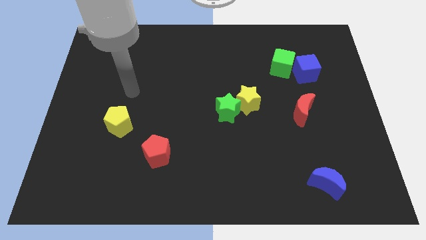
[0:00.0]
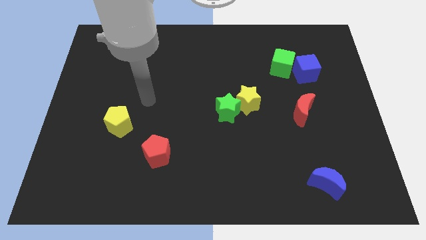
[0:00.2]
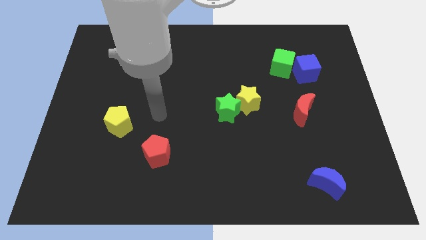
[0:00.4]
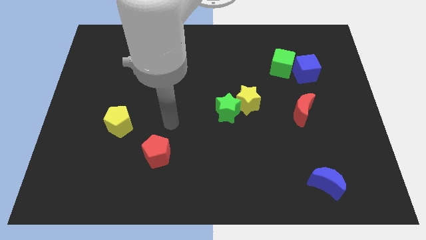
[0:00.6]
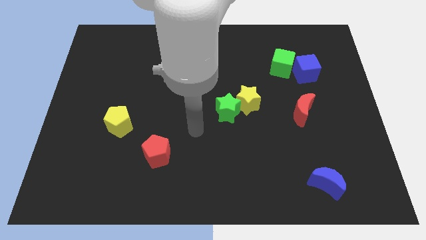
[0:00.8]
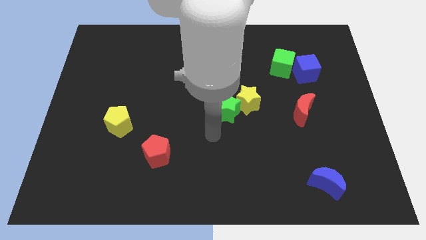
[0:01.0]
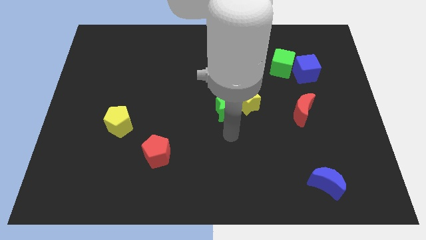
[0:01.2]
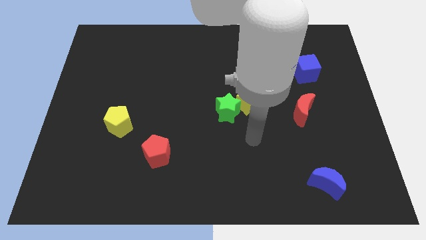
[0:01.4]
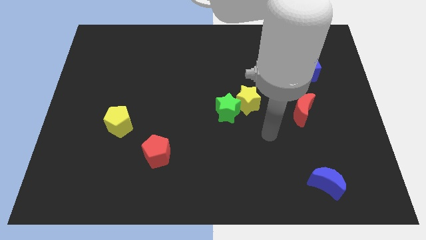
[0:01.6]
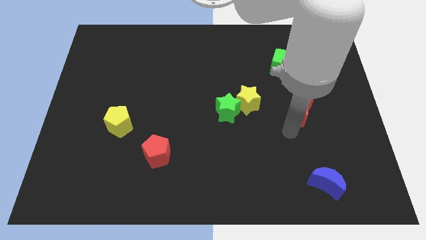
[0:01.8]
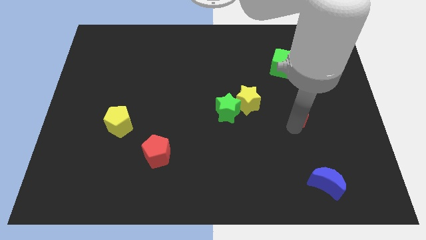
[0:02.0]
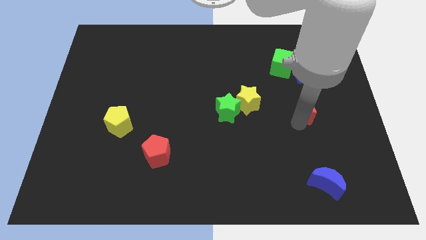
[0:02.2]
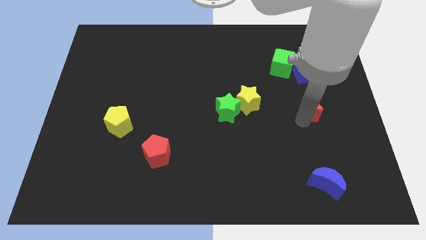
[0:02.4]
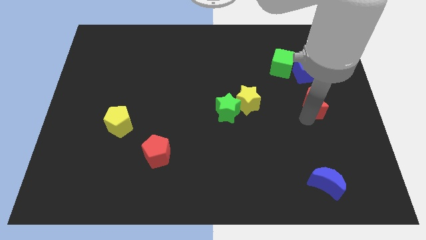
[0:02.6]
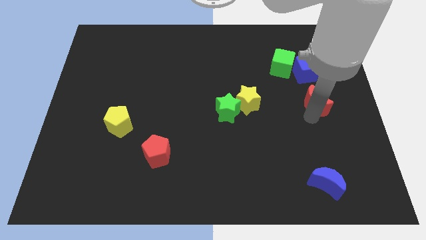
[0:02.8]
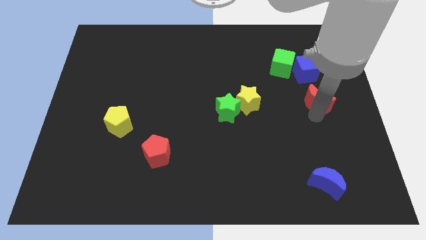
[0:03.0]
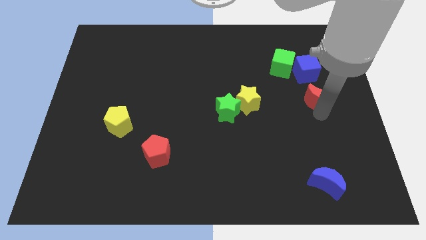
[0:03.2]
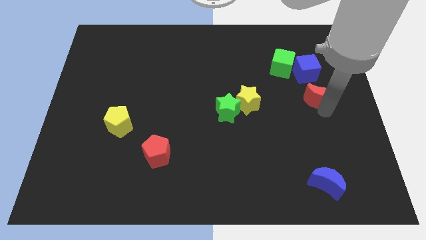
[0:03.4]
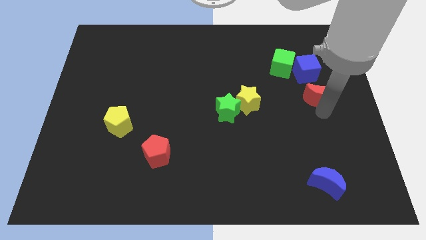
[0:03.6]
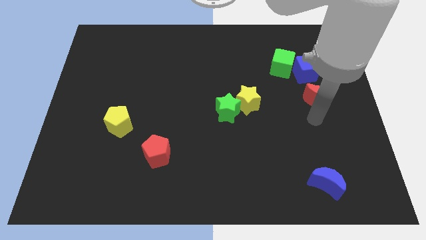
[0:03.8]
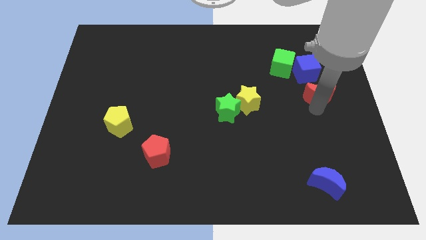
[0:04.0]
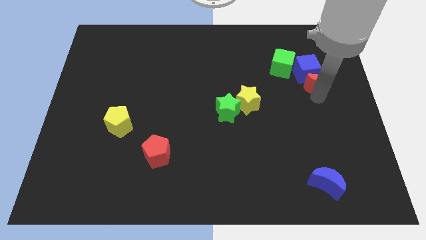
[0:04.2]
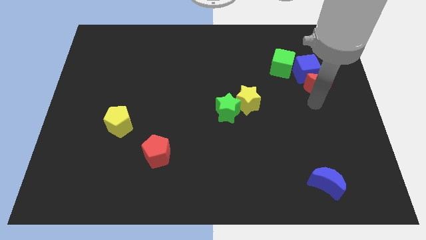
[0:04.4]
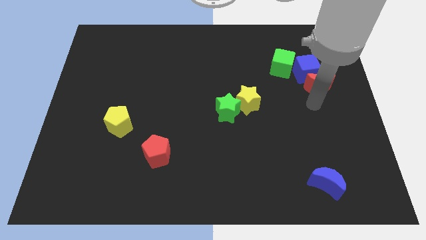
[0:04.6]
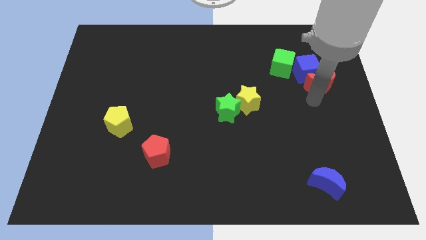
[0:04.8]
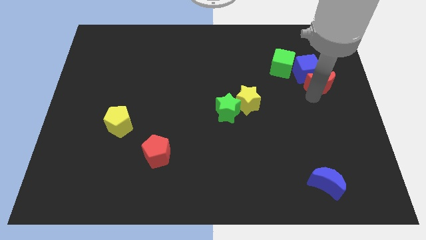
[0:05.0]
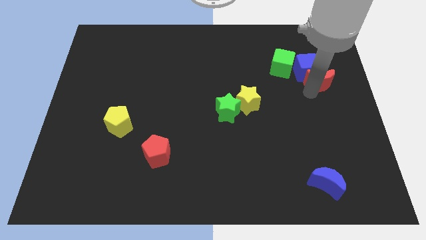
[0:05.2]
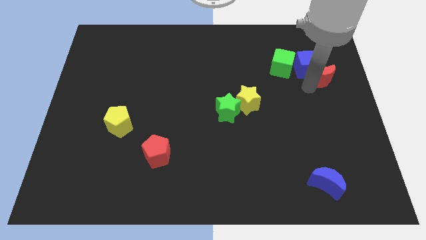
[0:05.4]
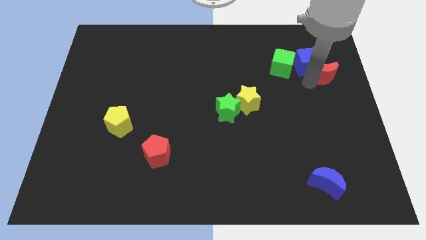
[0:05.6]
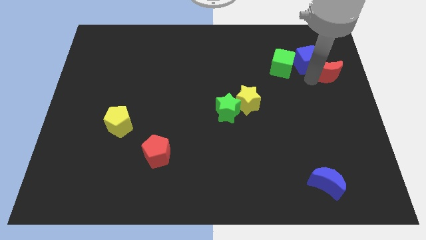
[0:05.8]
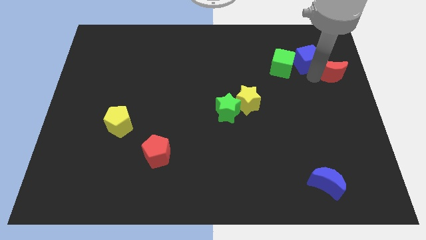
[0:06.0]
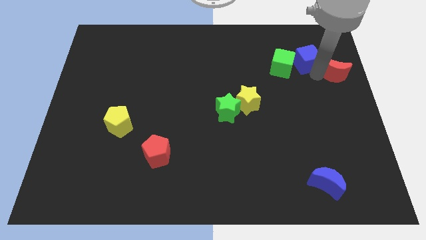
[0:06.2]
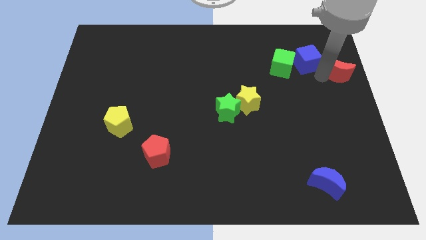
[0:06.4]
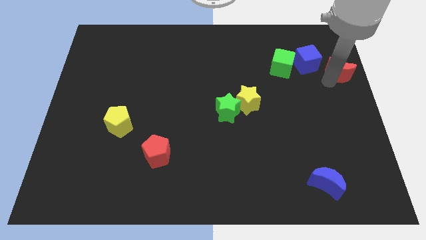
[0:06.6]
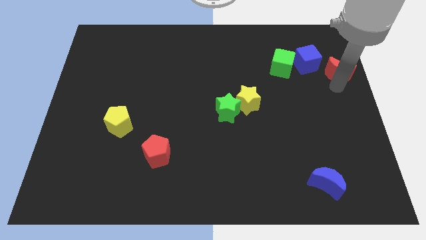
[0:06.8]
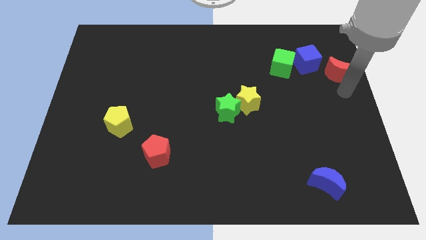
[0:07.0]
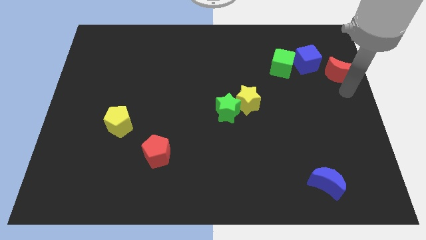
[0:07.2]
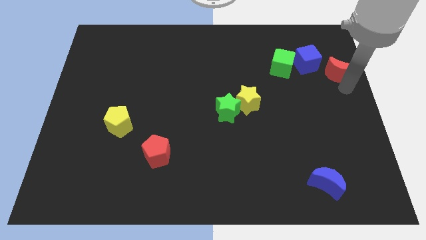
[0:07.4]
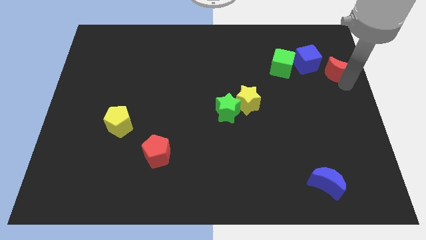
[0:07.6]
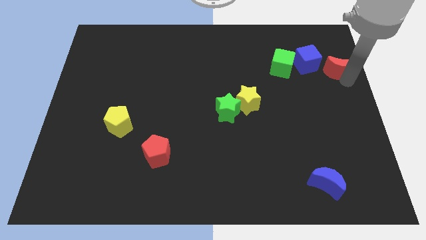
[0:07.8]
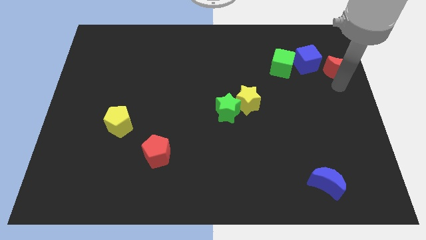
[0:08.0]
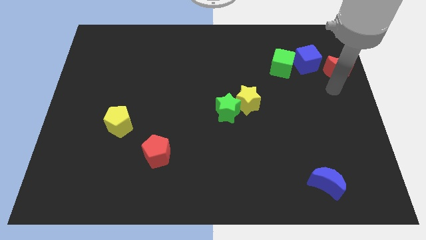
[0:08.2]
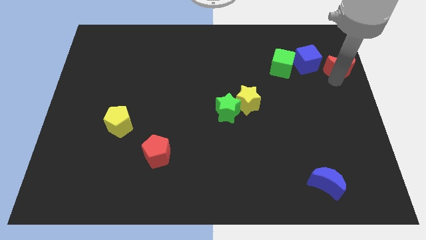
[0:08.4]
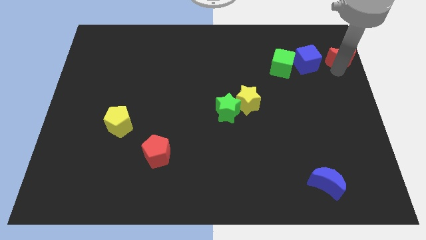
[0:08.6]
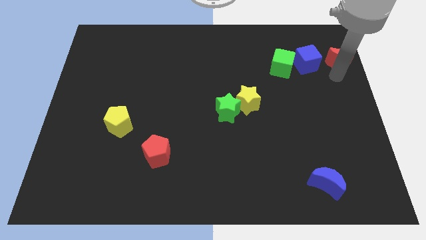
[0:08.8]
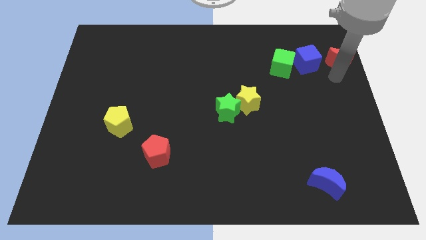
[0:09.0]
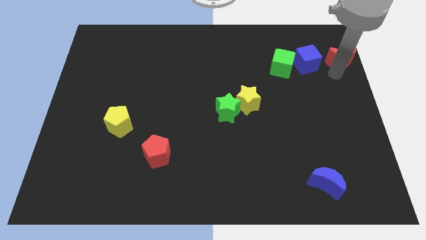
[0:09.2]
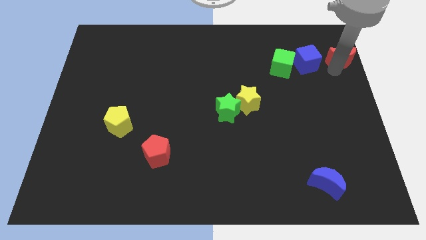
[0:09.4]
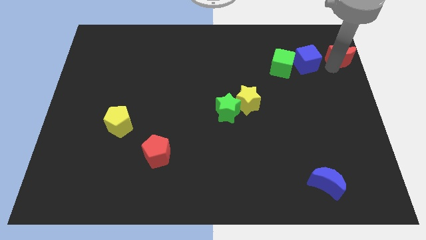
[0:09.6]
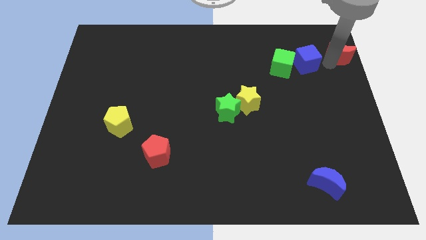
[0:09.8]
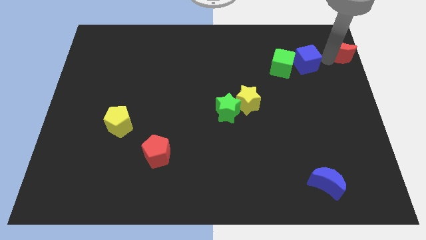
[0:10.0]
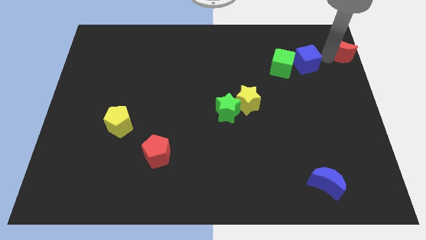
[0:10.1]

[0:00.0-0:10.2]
slide the red moon to the upper right corner

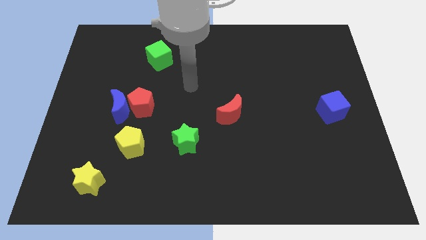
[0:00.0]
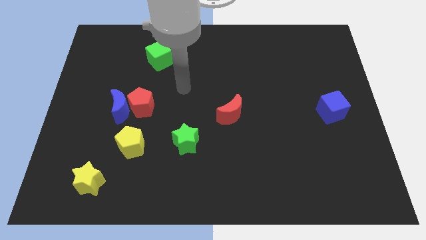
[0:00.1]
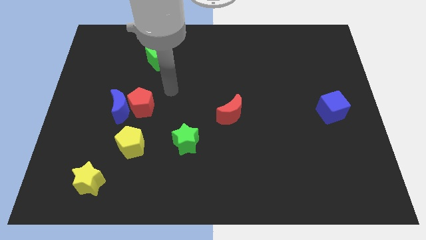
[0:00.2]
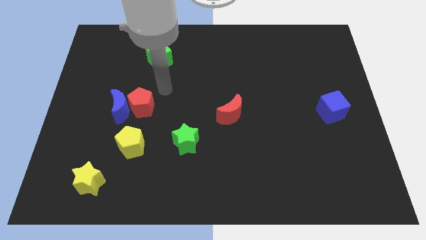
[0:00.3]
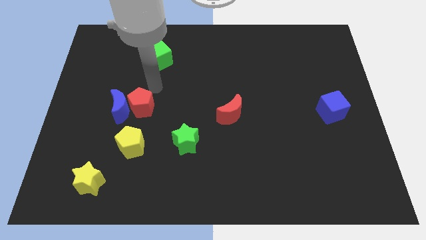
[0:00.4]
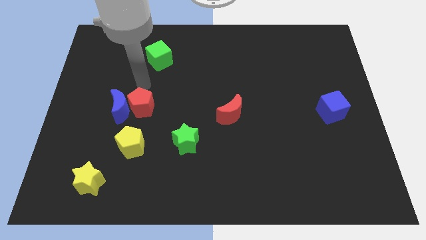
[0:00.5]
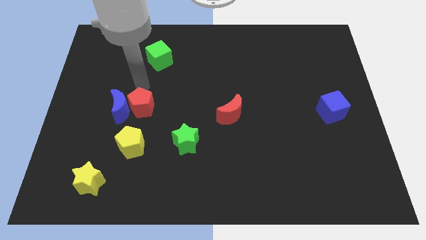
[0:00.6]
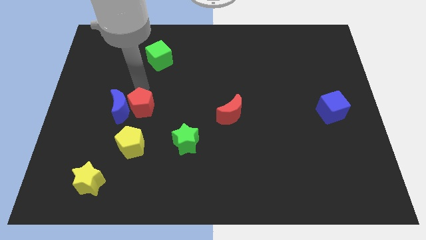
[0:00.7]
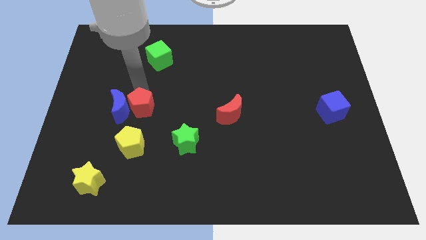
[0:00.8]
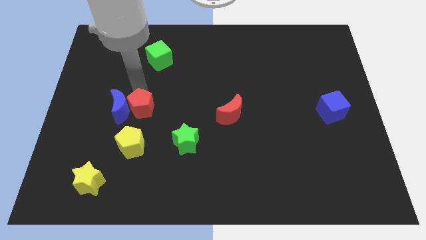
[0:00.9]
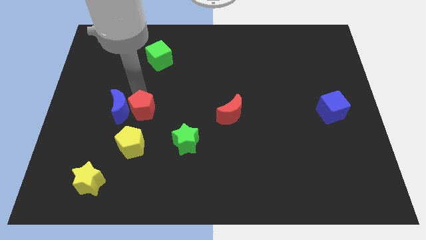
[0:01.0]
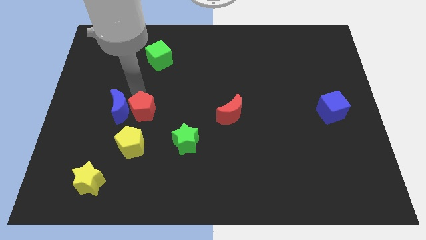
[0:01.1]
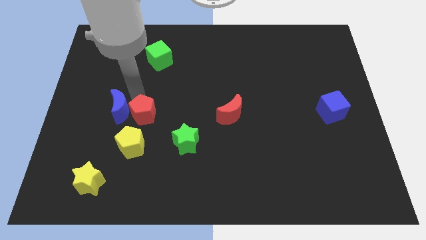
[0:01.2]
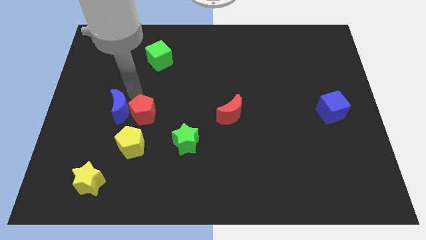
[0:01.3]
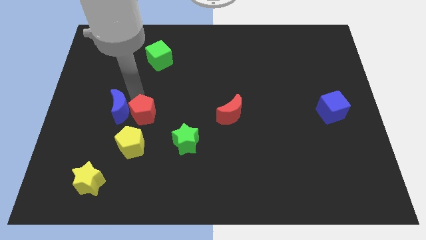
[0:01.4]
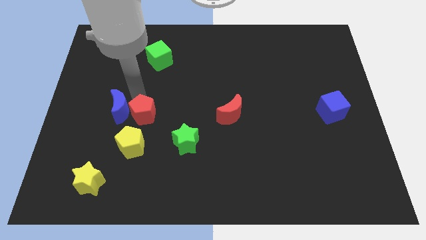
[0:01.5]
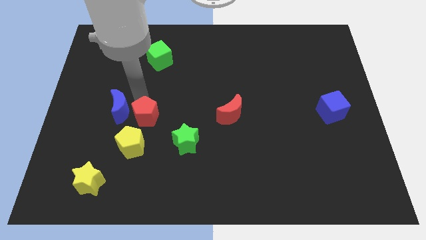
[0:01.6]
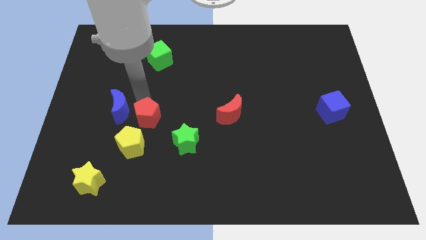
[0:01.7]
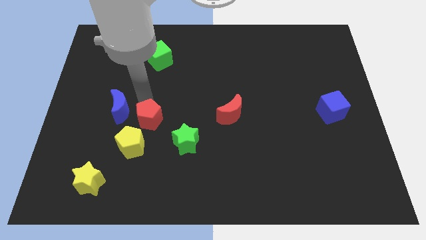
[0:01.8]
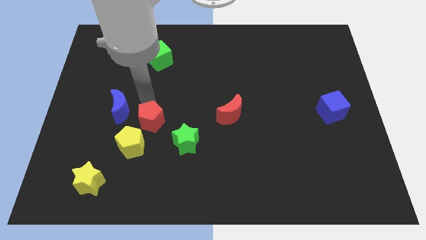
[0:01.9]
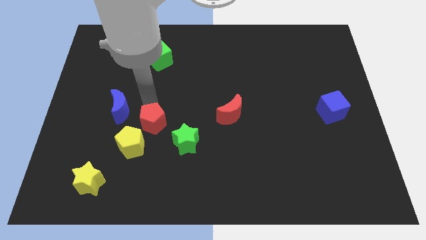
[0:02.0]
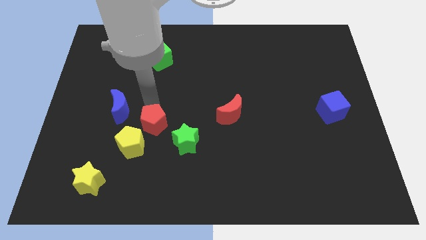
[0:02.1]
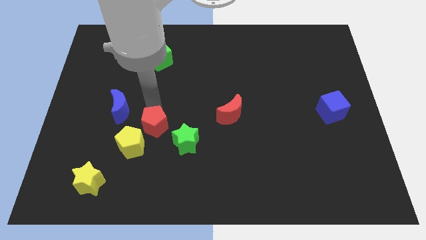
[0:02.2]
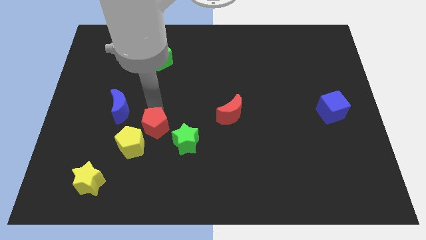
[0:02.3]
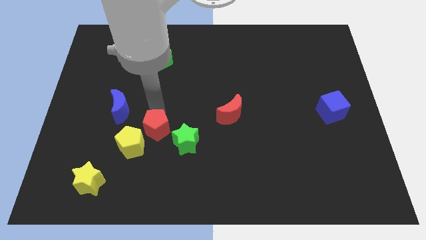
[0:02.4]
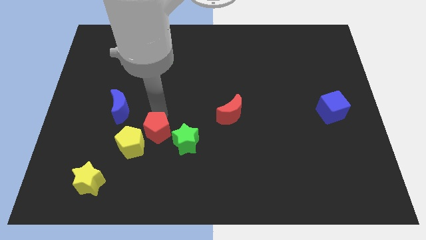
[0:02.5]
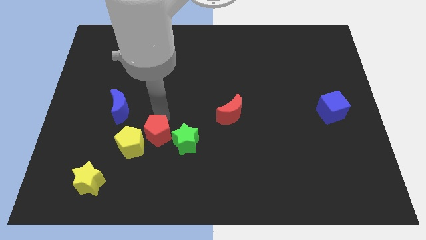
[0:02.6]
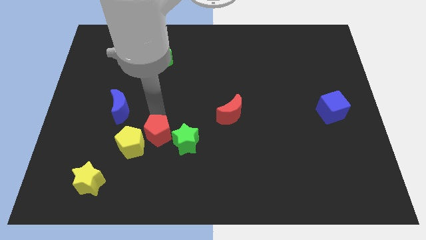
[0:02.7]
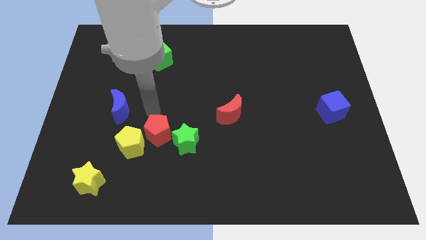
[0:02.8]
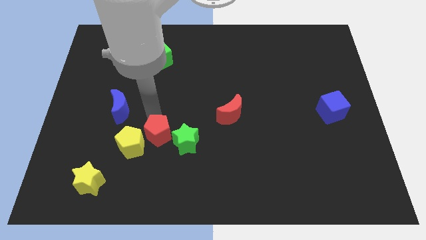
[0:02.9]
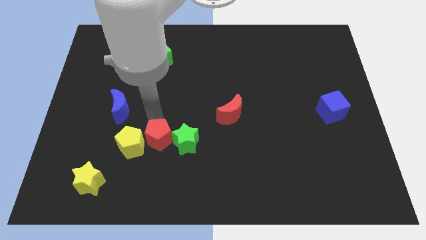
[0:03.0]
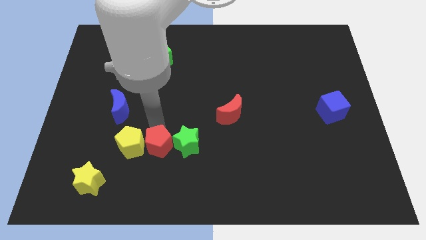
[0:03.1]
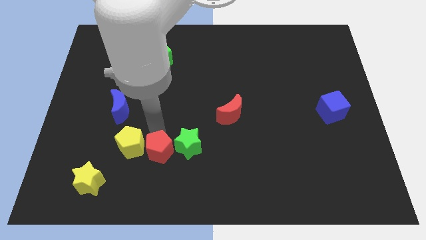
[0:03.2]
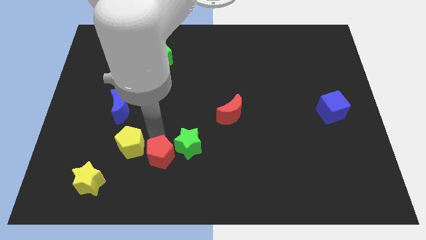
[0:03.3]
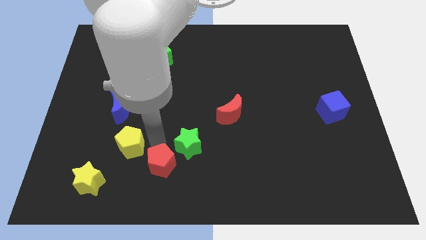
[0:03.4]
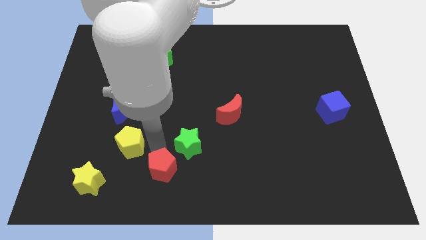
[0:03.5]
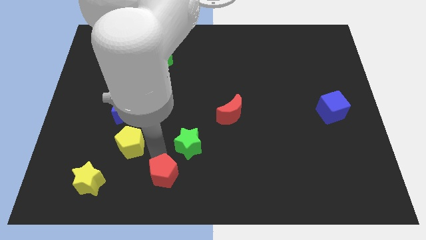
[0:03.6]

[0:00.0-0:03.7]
move the red pentagon to the bottom side
